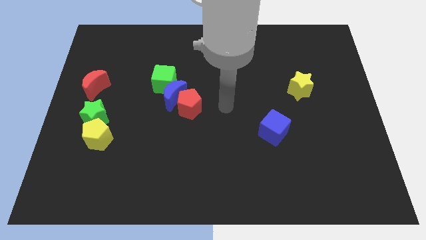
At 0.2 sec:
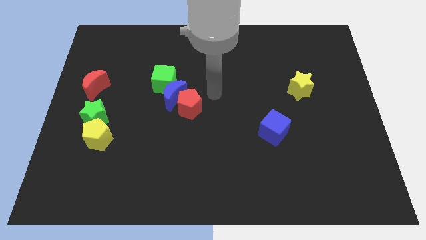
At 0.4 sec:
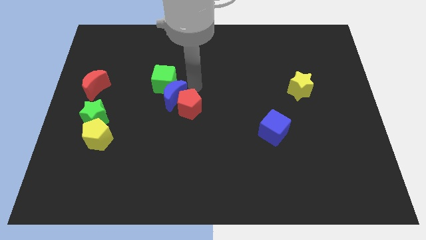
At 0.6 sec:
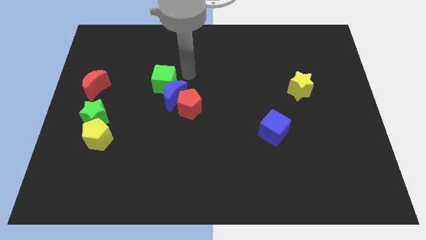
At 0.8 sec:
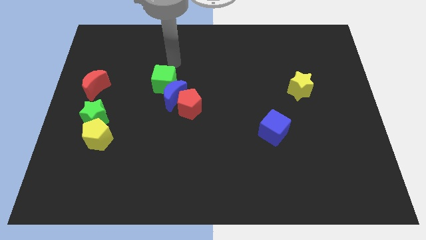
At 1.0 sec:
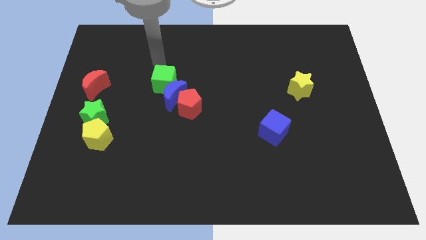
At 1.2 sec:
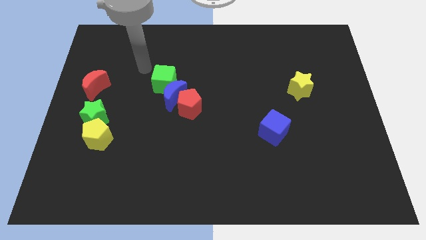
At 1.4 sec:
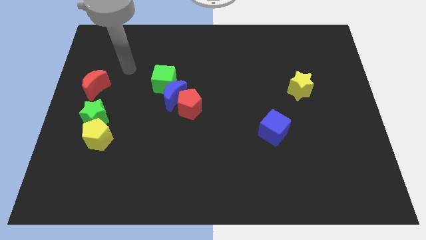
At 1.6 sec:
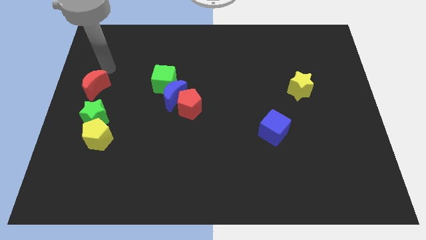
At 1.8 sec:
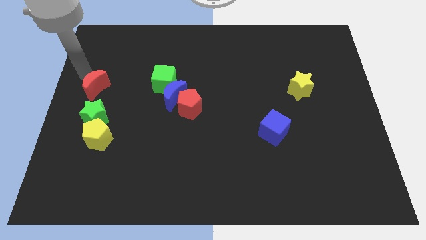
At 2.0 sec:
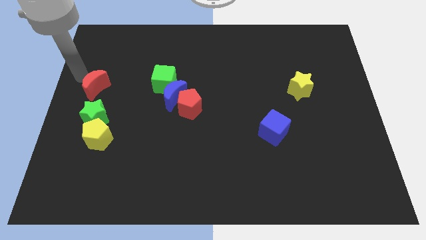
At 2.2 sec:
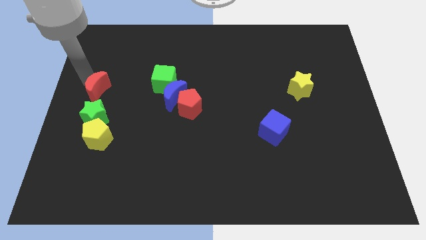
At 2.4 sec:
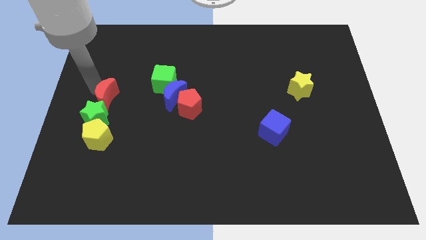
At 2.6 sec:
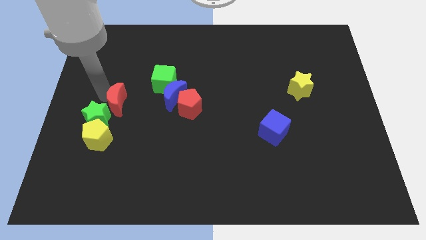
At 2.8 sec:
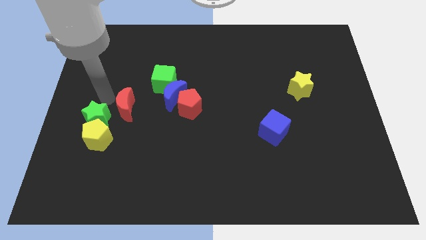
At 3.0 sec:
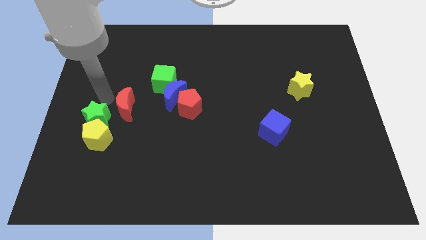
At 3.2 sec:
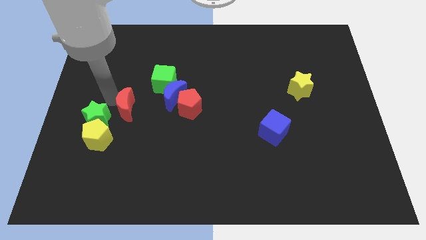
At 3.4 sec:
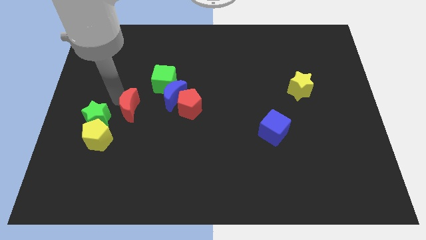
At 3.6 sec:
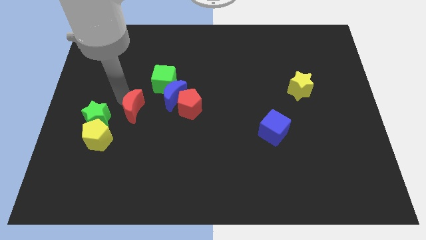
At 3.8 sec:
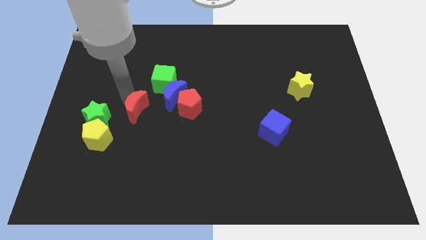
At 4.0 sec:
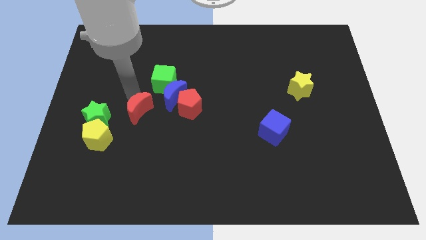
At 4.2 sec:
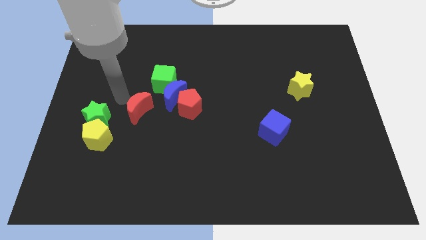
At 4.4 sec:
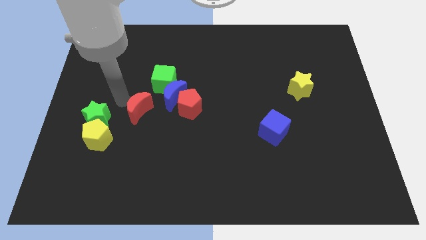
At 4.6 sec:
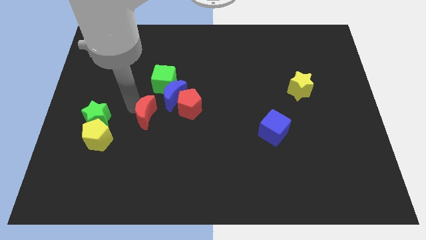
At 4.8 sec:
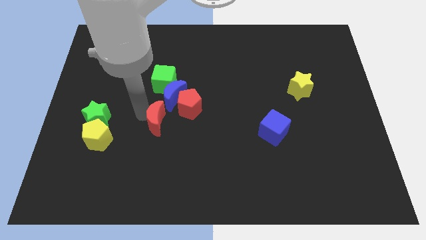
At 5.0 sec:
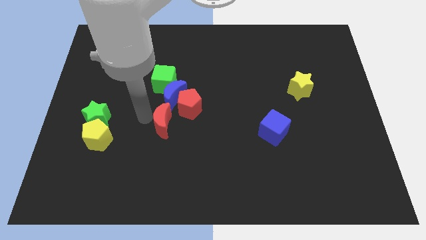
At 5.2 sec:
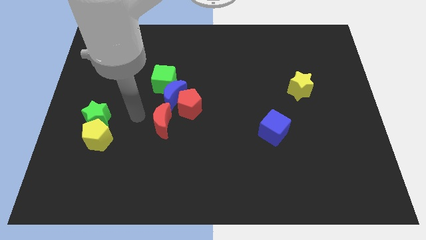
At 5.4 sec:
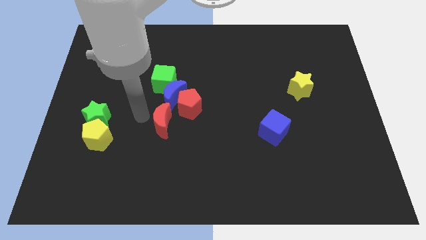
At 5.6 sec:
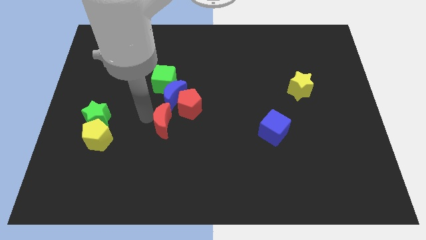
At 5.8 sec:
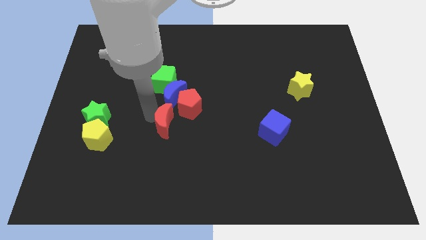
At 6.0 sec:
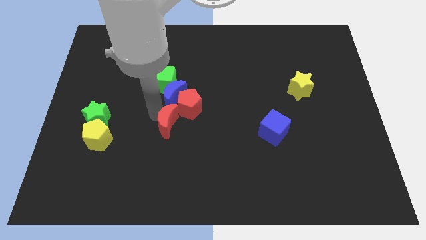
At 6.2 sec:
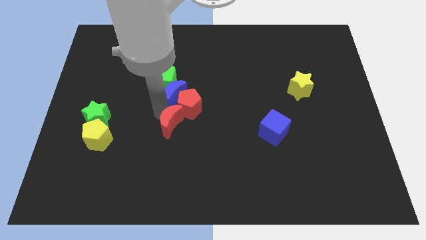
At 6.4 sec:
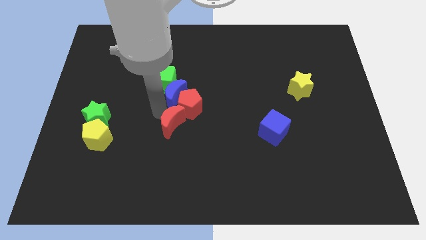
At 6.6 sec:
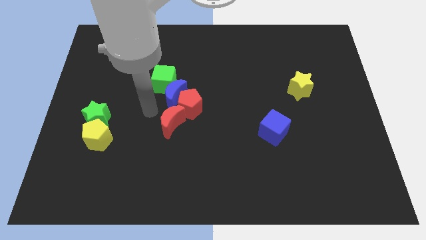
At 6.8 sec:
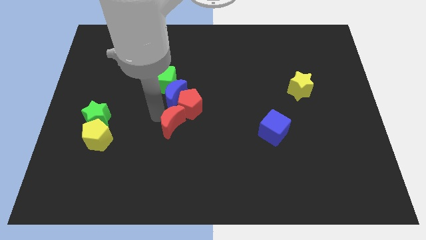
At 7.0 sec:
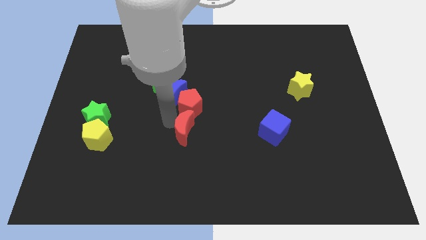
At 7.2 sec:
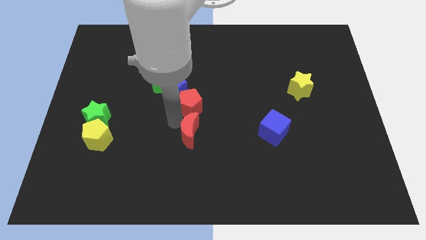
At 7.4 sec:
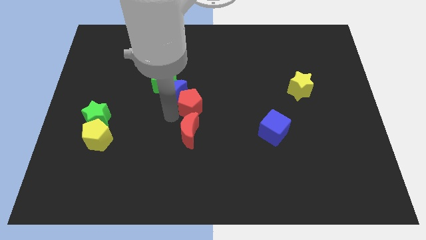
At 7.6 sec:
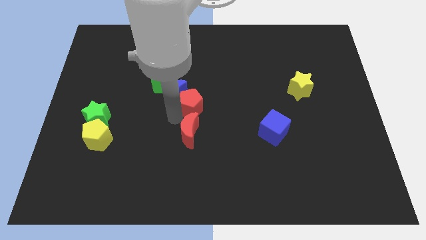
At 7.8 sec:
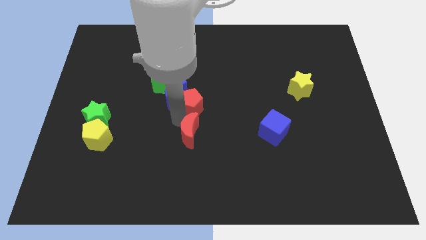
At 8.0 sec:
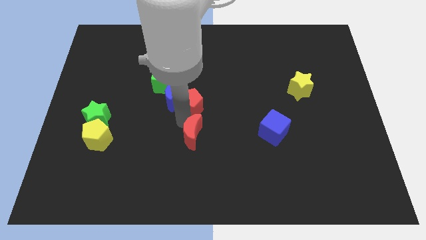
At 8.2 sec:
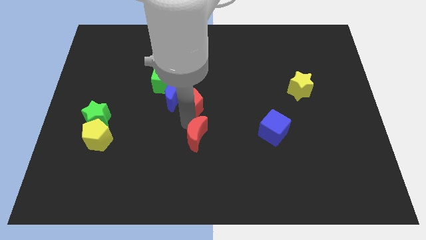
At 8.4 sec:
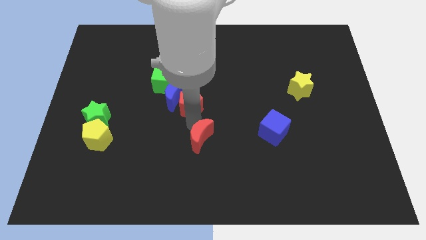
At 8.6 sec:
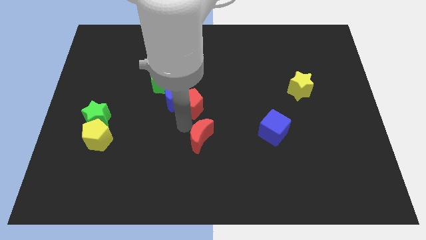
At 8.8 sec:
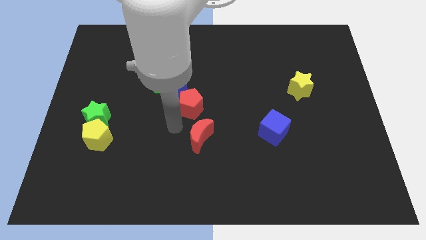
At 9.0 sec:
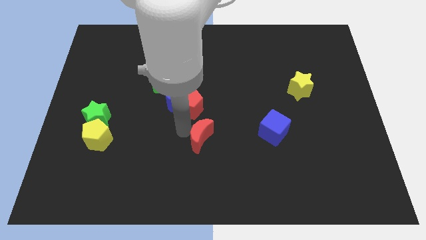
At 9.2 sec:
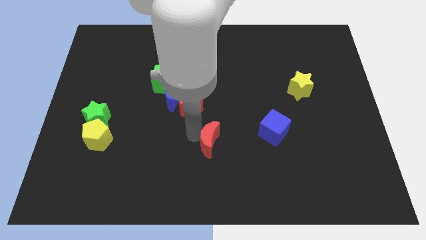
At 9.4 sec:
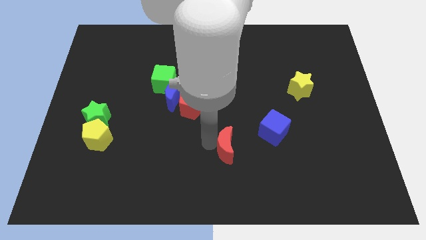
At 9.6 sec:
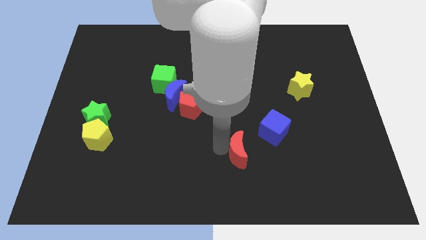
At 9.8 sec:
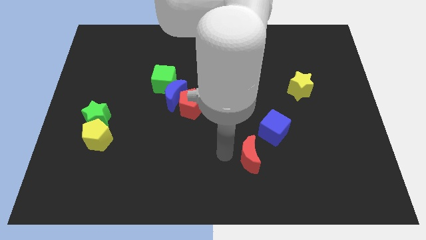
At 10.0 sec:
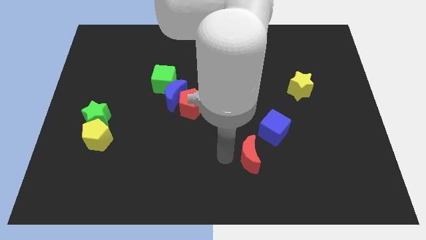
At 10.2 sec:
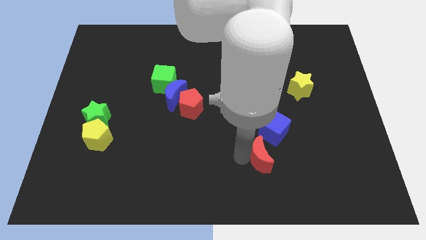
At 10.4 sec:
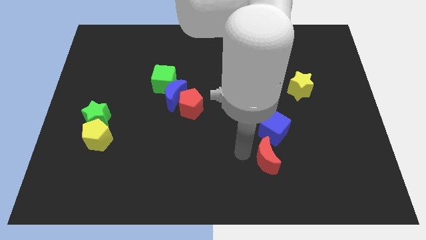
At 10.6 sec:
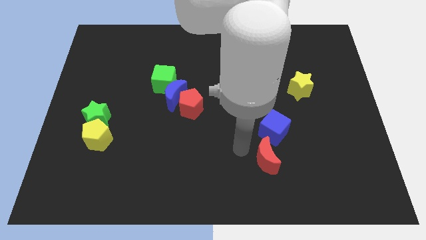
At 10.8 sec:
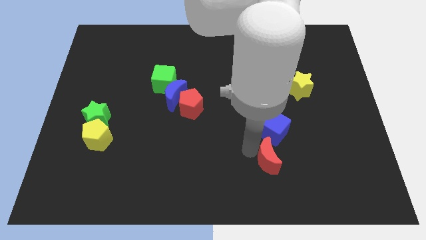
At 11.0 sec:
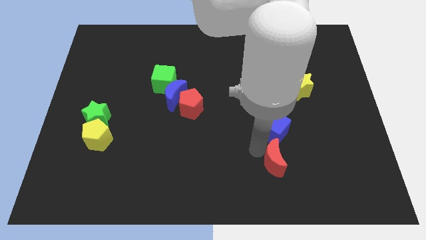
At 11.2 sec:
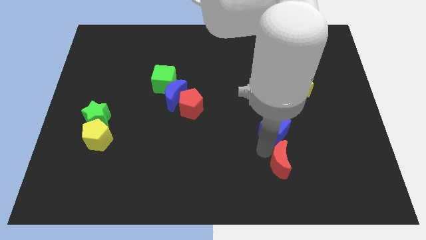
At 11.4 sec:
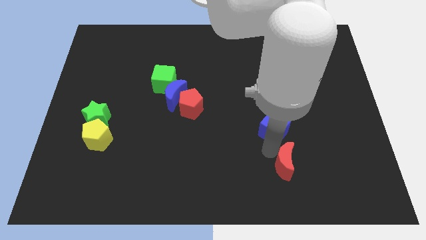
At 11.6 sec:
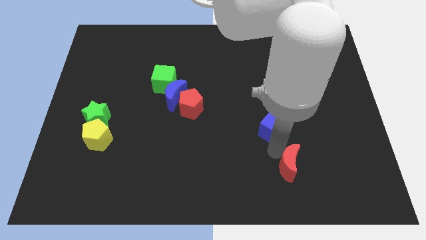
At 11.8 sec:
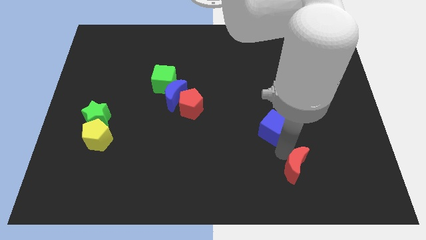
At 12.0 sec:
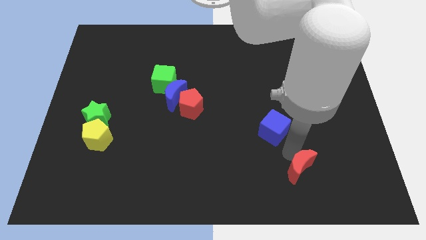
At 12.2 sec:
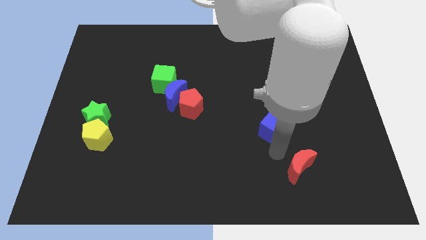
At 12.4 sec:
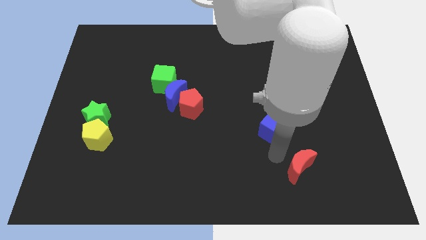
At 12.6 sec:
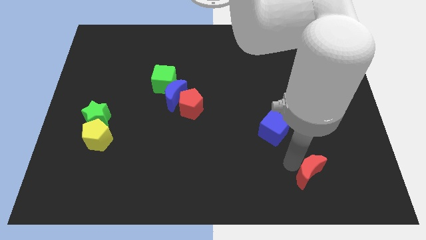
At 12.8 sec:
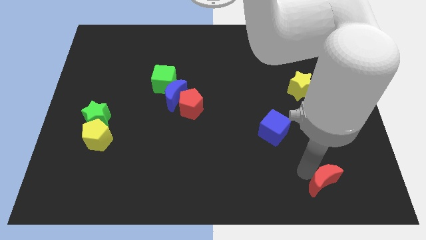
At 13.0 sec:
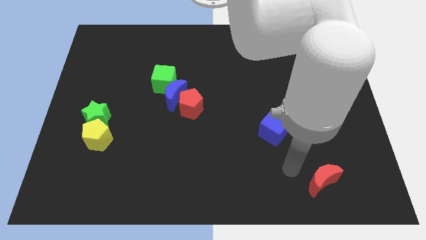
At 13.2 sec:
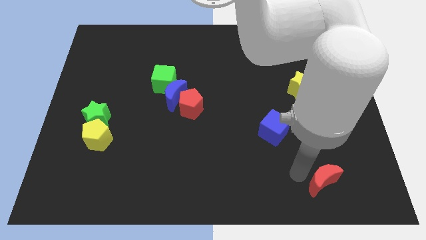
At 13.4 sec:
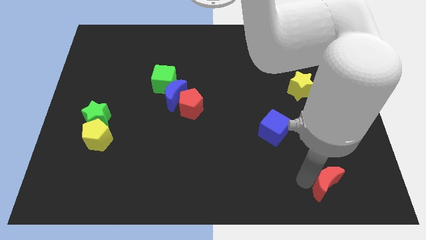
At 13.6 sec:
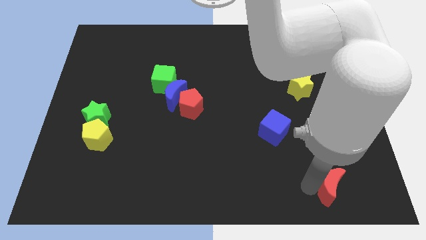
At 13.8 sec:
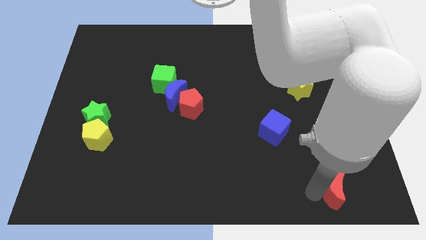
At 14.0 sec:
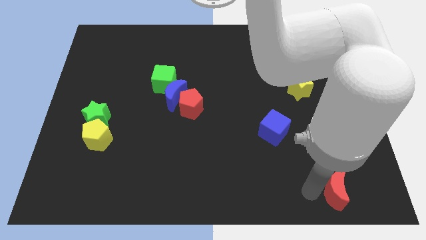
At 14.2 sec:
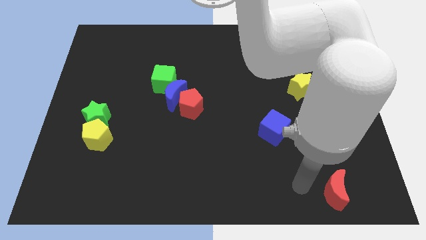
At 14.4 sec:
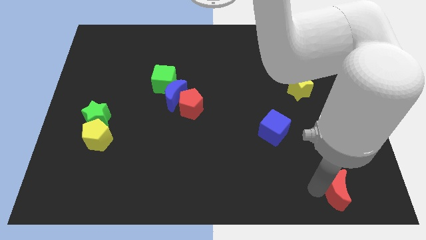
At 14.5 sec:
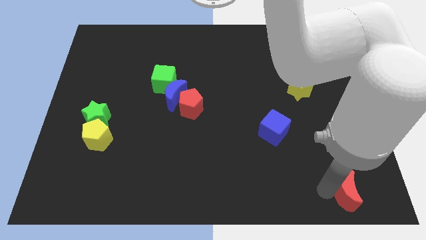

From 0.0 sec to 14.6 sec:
push the red moon to the lower right corner
